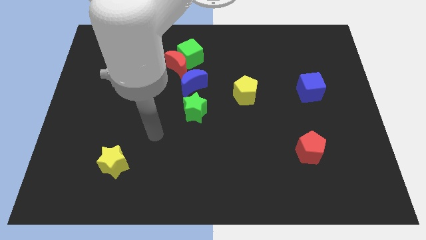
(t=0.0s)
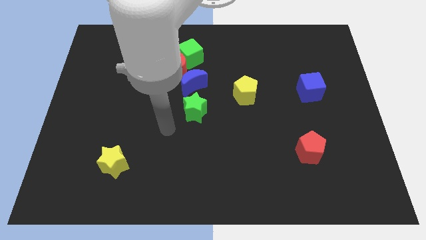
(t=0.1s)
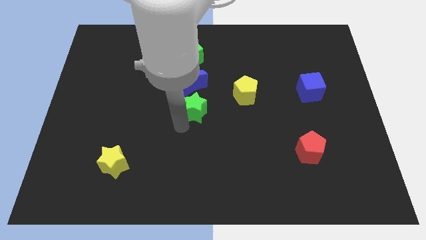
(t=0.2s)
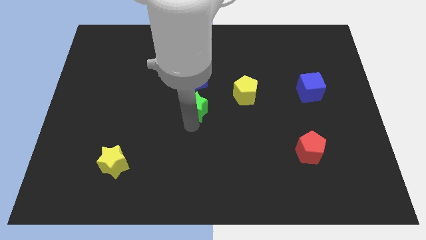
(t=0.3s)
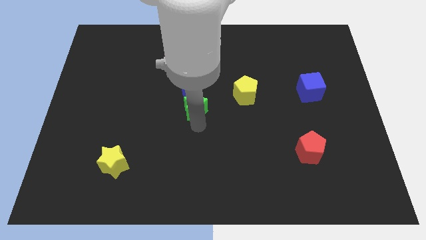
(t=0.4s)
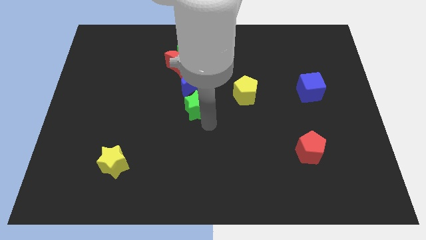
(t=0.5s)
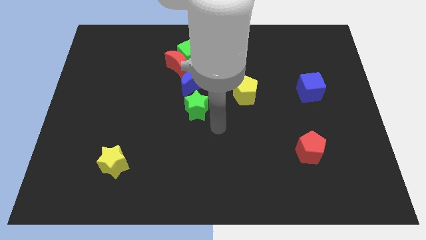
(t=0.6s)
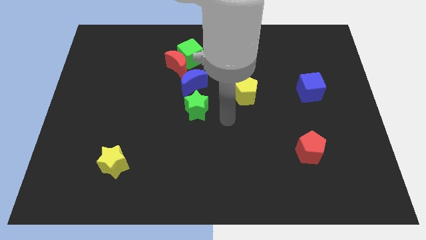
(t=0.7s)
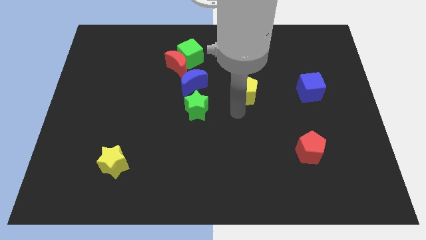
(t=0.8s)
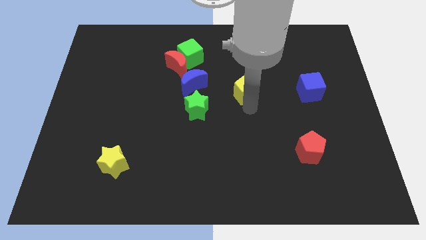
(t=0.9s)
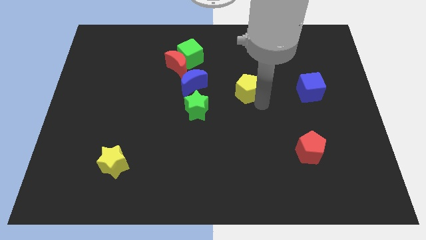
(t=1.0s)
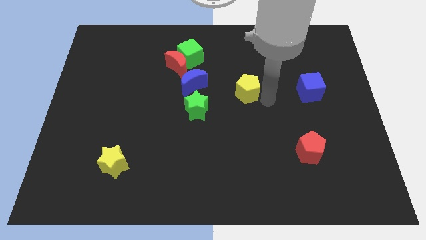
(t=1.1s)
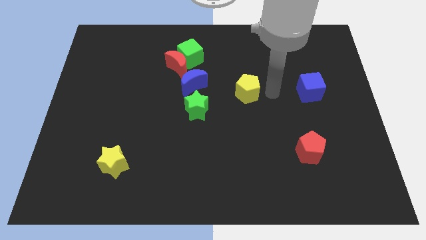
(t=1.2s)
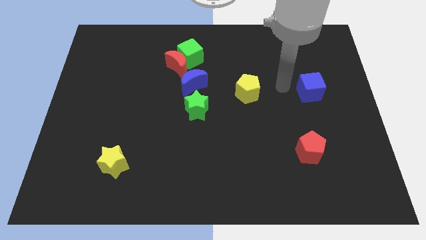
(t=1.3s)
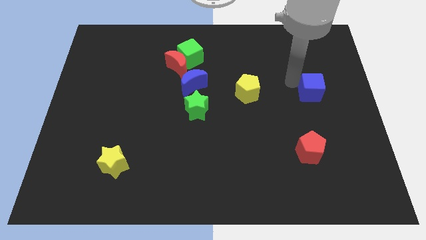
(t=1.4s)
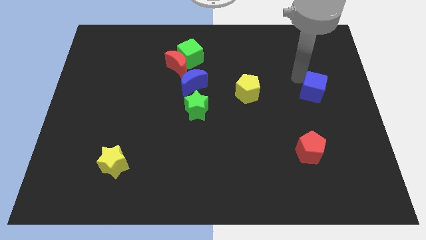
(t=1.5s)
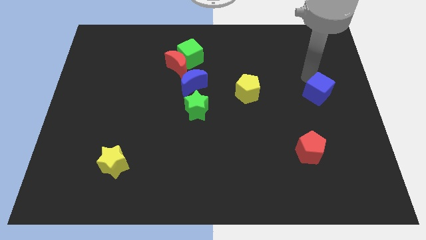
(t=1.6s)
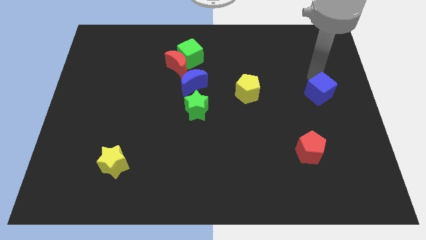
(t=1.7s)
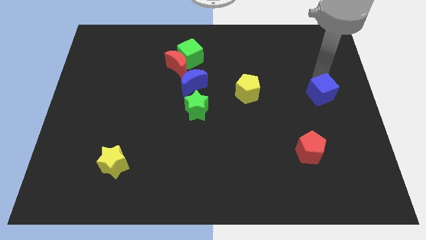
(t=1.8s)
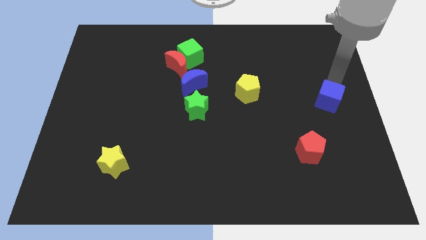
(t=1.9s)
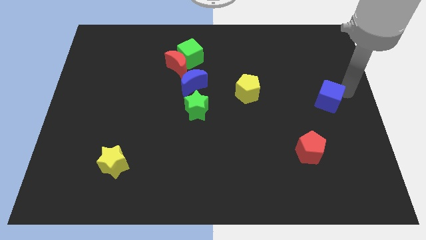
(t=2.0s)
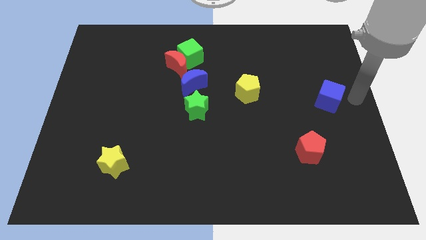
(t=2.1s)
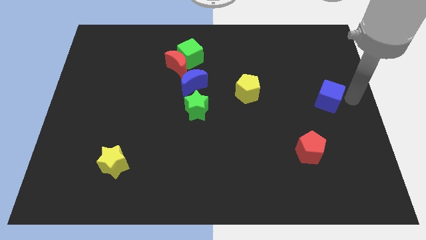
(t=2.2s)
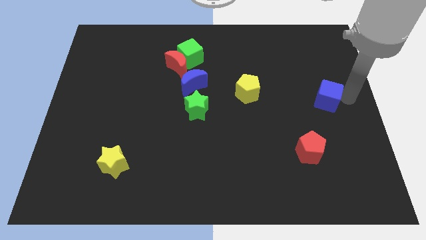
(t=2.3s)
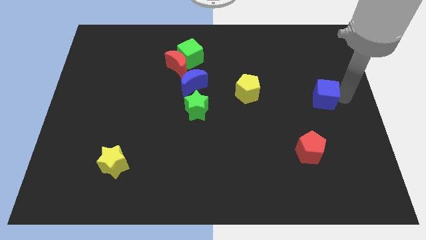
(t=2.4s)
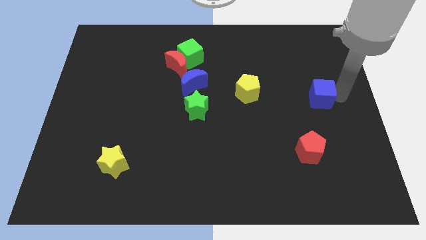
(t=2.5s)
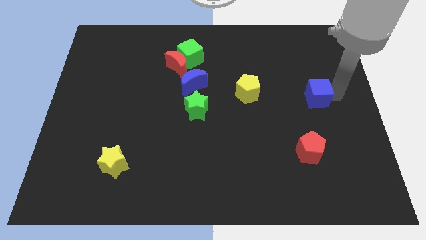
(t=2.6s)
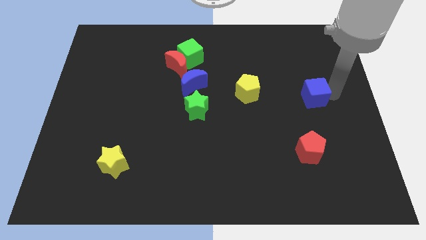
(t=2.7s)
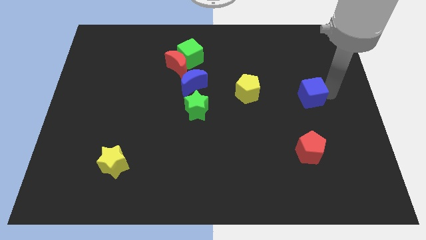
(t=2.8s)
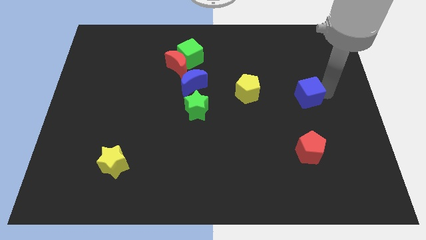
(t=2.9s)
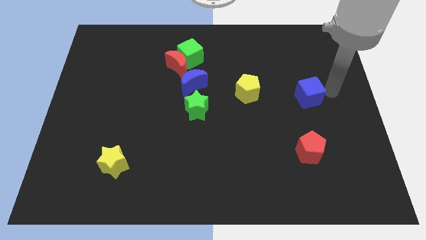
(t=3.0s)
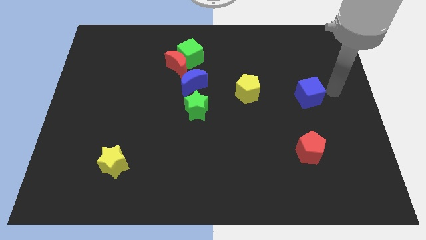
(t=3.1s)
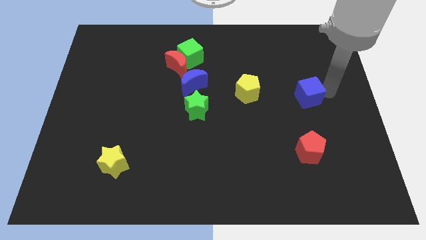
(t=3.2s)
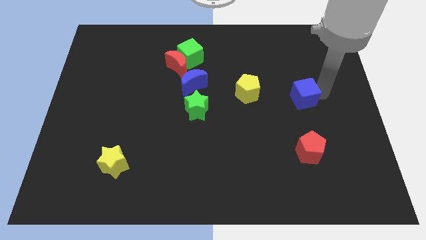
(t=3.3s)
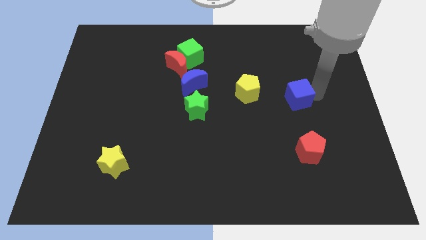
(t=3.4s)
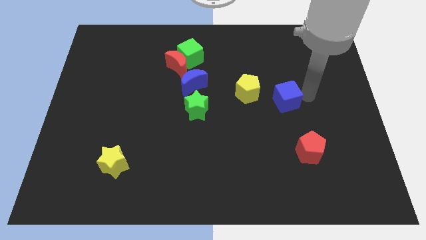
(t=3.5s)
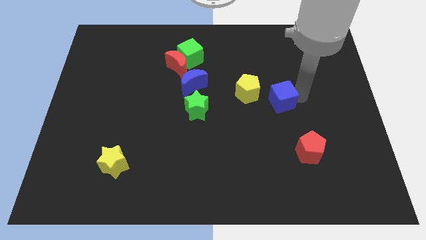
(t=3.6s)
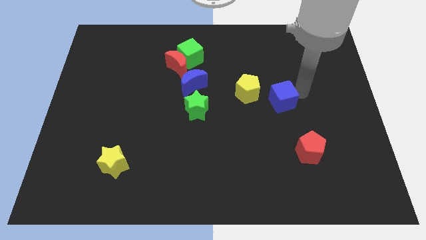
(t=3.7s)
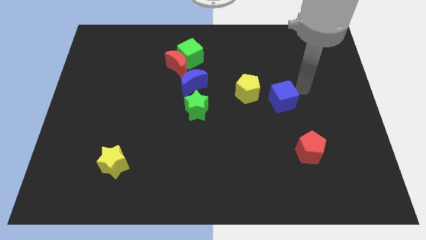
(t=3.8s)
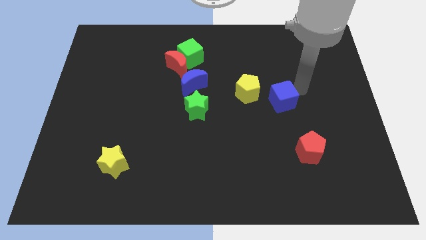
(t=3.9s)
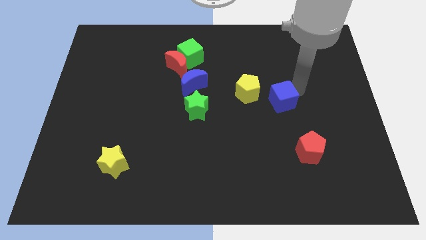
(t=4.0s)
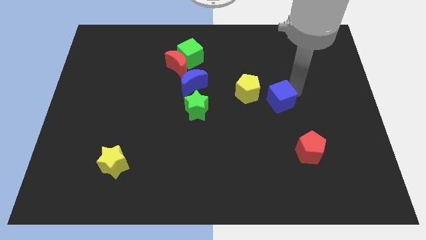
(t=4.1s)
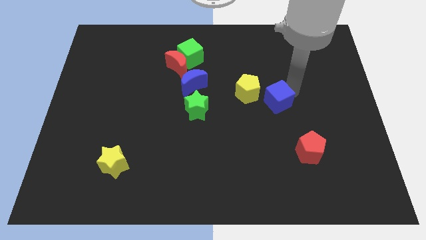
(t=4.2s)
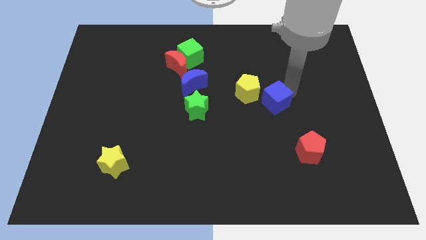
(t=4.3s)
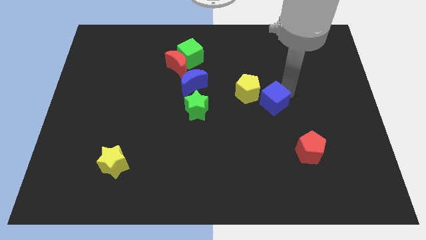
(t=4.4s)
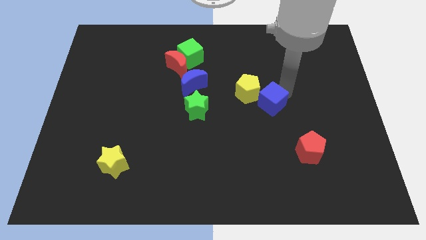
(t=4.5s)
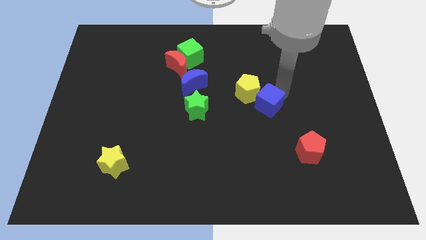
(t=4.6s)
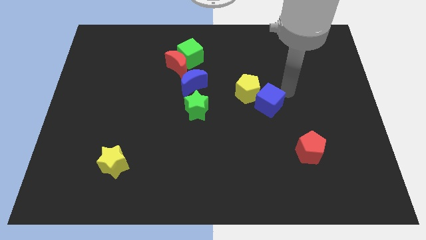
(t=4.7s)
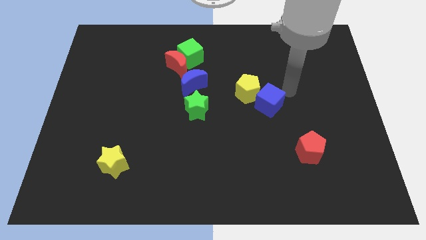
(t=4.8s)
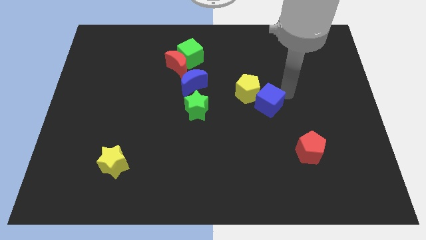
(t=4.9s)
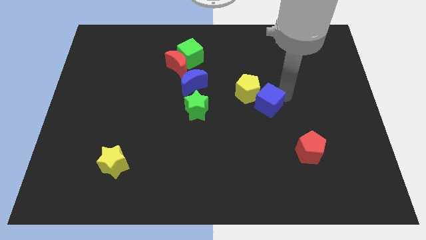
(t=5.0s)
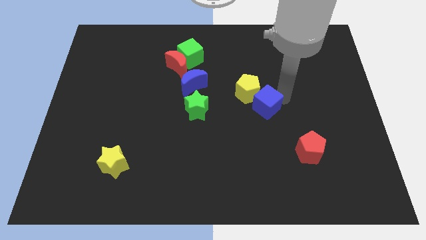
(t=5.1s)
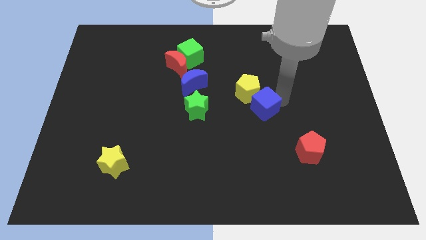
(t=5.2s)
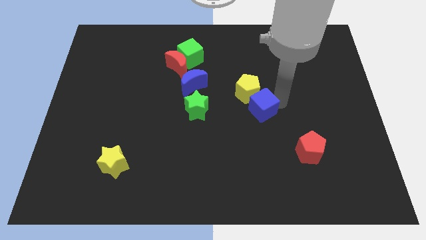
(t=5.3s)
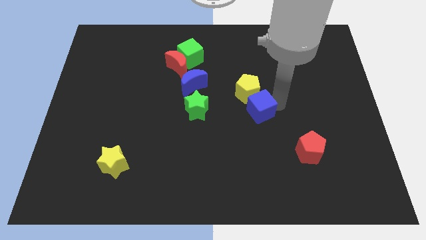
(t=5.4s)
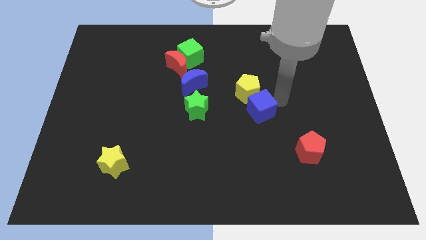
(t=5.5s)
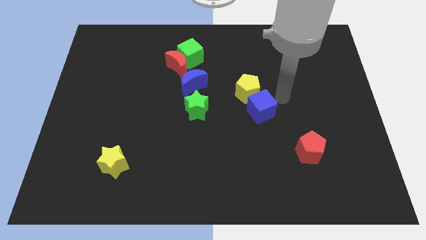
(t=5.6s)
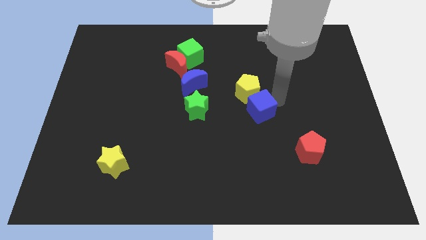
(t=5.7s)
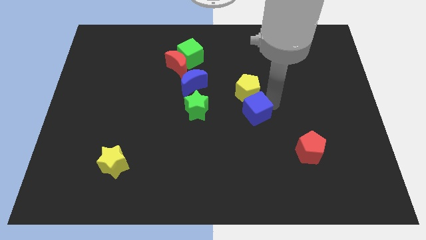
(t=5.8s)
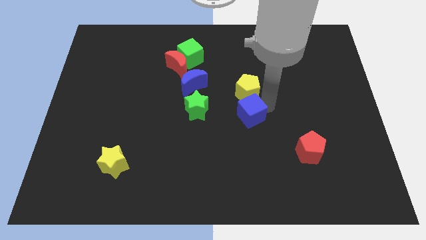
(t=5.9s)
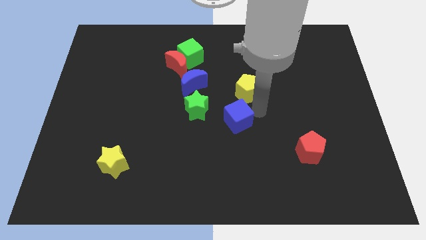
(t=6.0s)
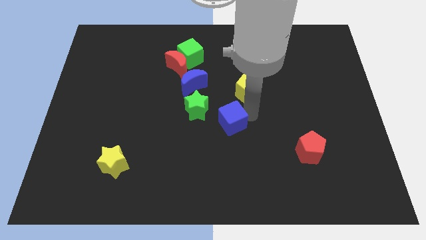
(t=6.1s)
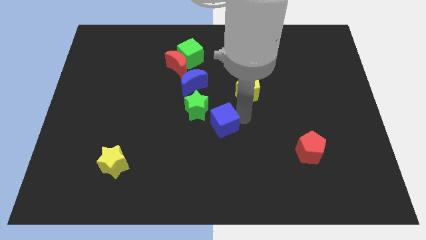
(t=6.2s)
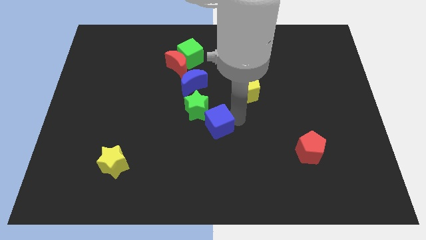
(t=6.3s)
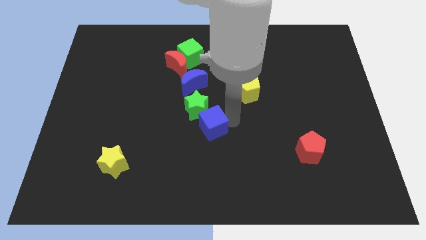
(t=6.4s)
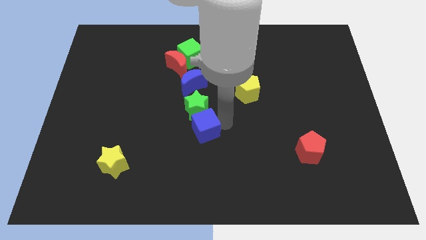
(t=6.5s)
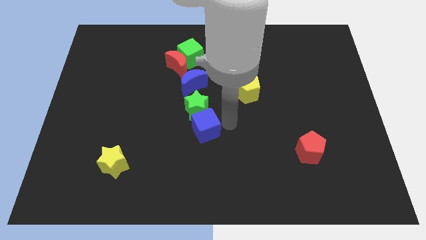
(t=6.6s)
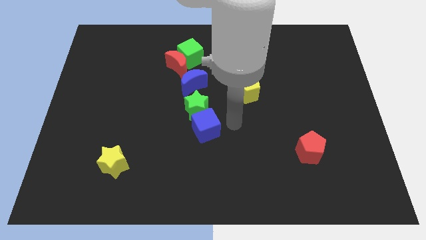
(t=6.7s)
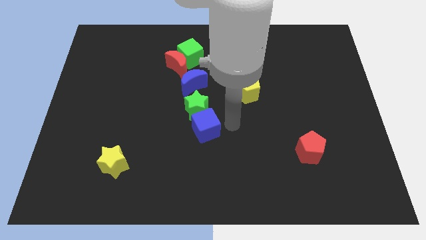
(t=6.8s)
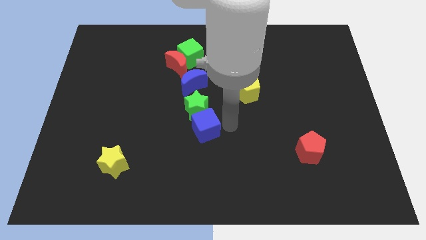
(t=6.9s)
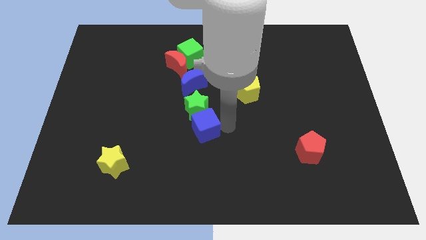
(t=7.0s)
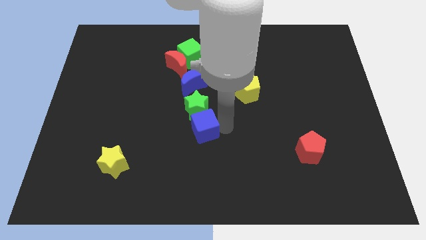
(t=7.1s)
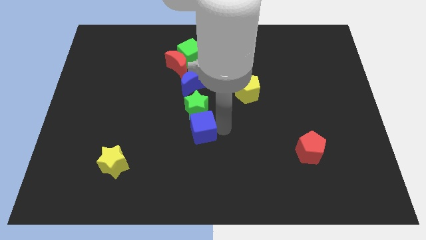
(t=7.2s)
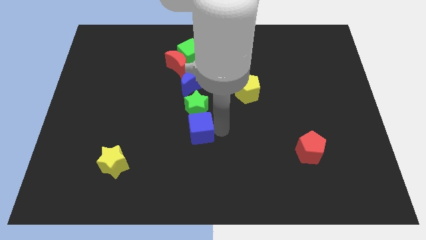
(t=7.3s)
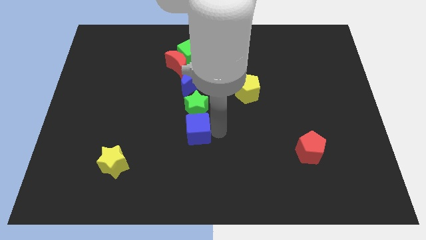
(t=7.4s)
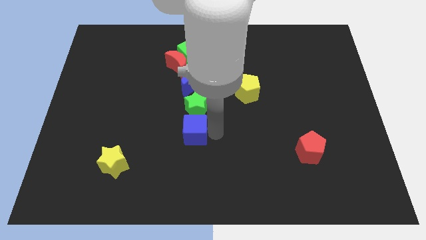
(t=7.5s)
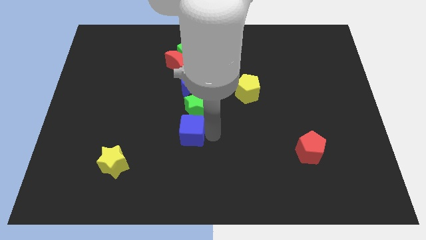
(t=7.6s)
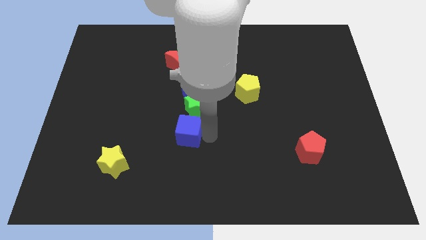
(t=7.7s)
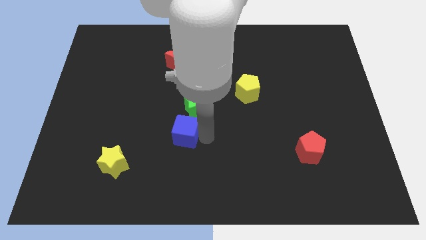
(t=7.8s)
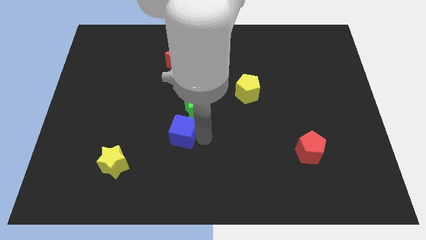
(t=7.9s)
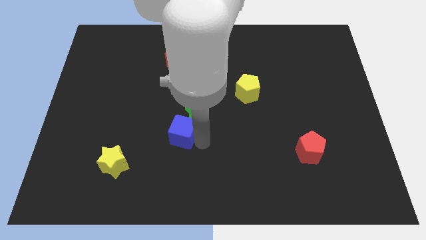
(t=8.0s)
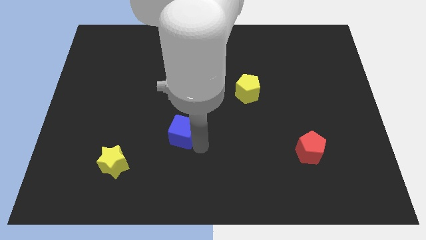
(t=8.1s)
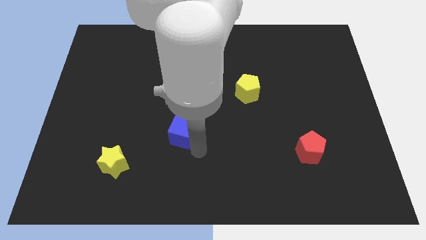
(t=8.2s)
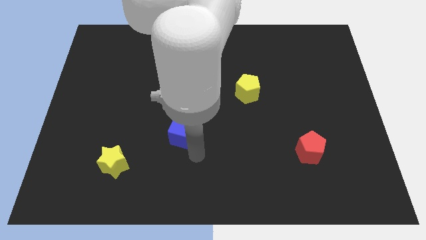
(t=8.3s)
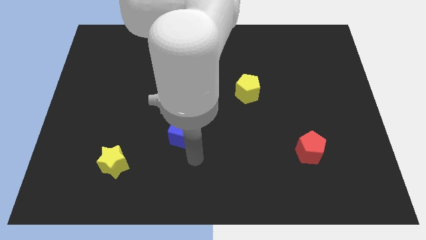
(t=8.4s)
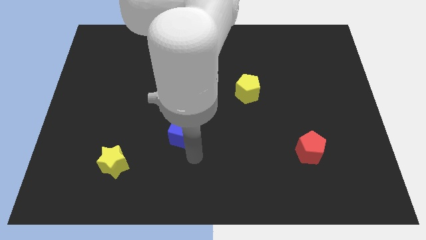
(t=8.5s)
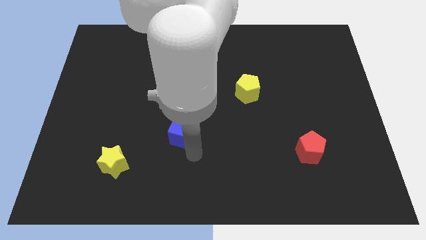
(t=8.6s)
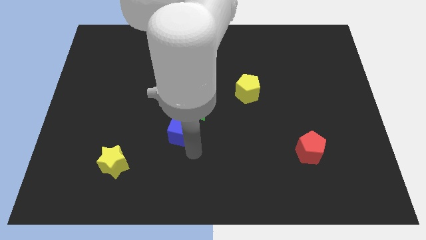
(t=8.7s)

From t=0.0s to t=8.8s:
move the blue cube to the left
